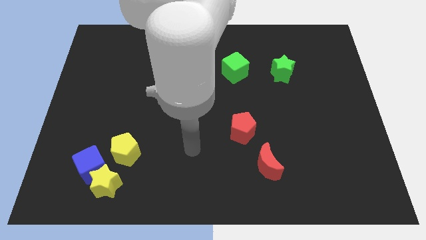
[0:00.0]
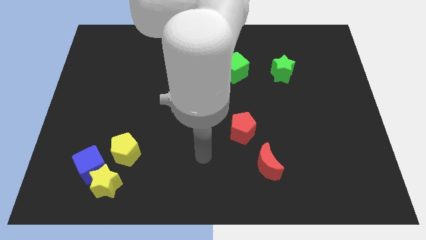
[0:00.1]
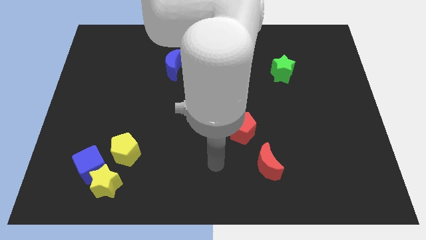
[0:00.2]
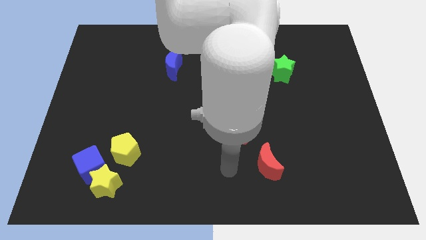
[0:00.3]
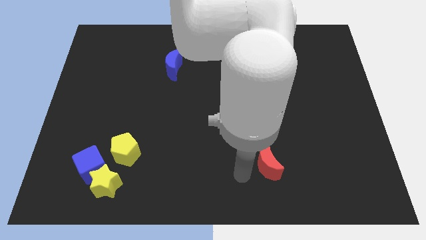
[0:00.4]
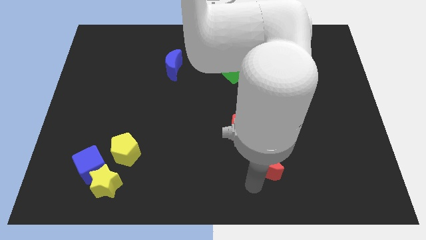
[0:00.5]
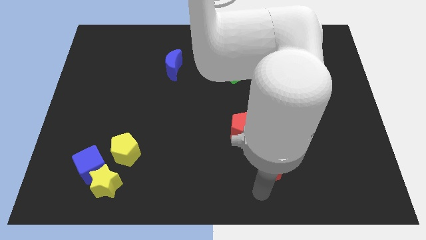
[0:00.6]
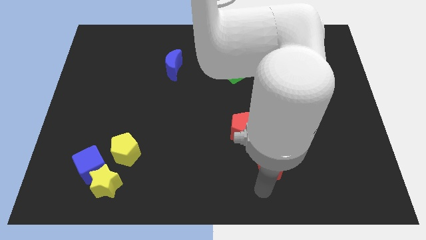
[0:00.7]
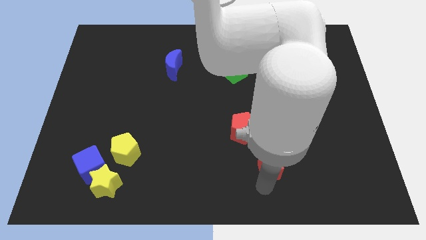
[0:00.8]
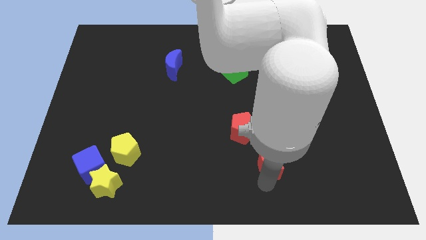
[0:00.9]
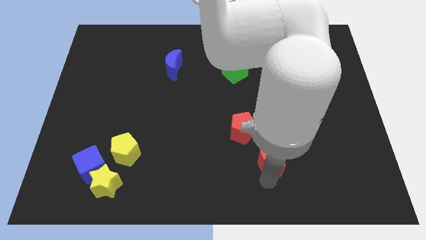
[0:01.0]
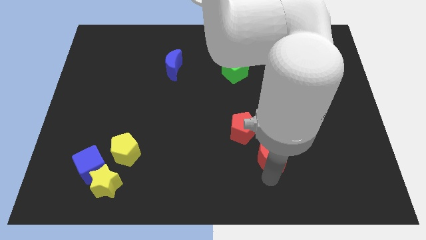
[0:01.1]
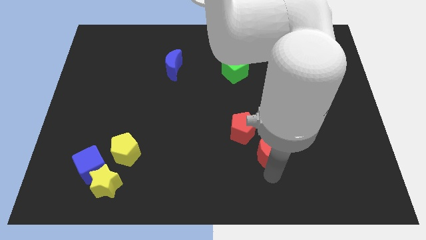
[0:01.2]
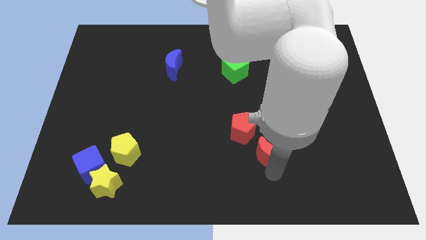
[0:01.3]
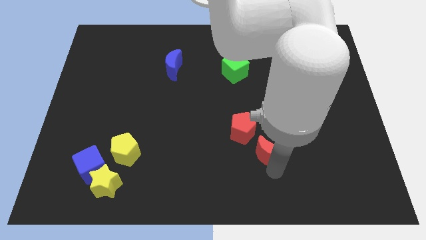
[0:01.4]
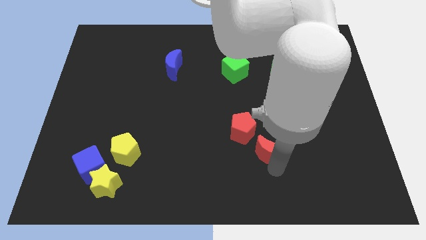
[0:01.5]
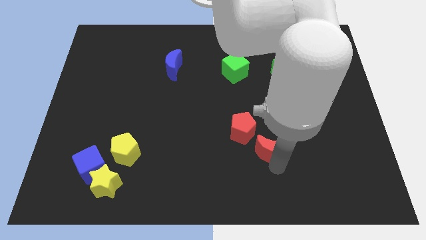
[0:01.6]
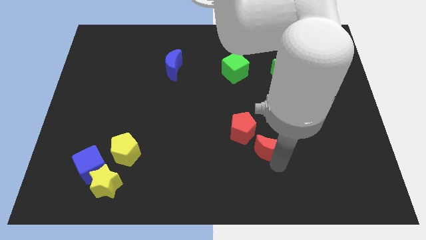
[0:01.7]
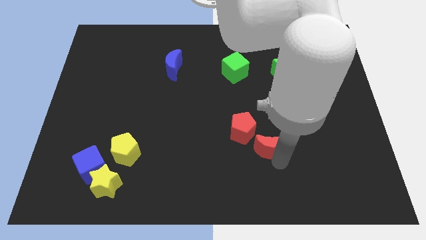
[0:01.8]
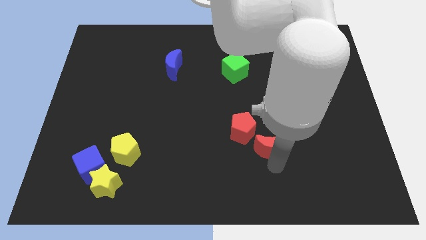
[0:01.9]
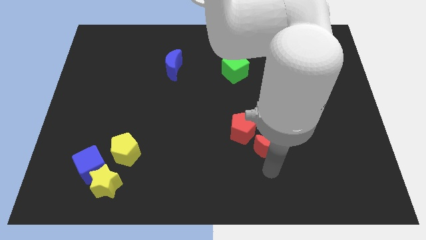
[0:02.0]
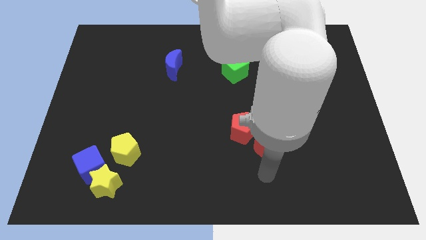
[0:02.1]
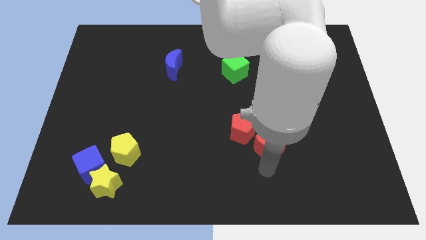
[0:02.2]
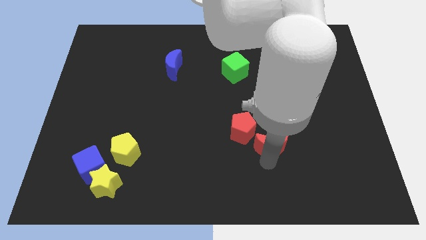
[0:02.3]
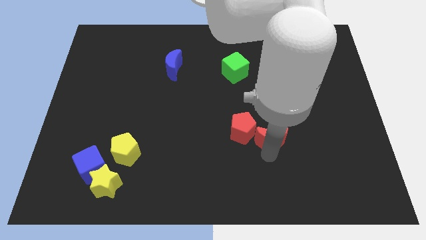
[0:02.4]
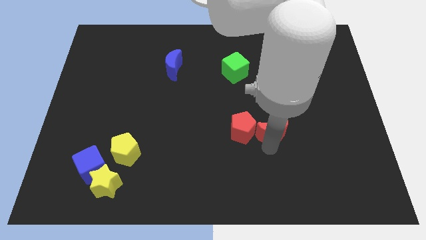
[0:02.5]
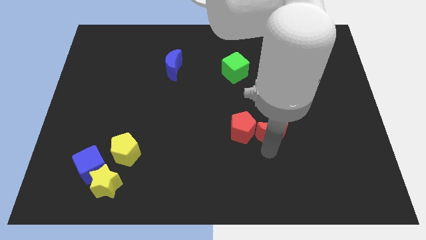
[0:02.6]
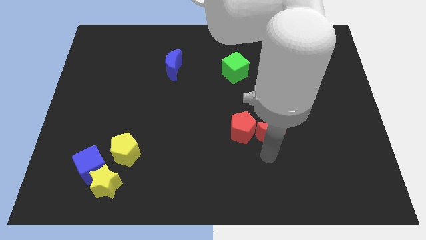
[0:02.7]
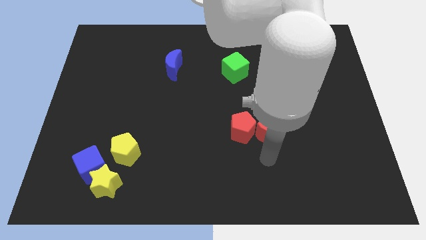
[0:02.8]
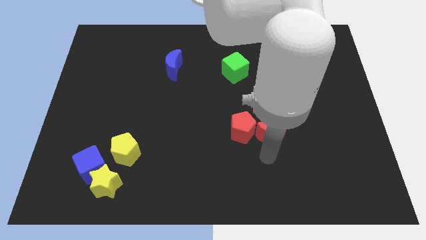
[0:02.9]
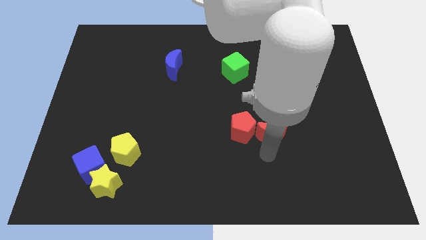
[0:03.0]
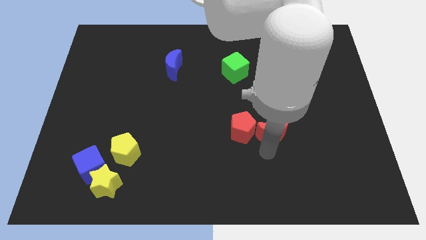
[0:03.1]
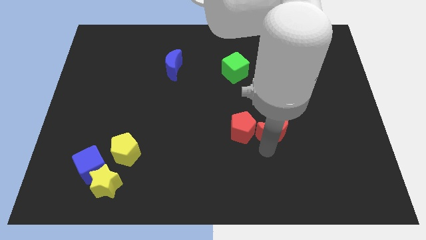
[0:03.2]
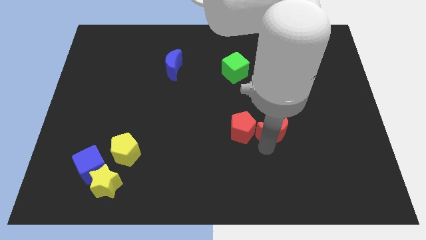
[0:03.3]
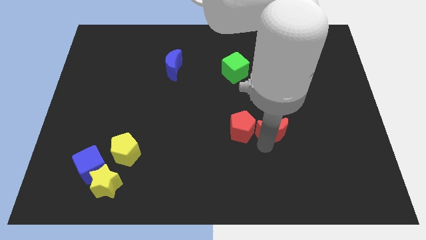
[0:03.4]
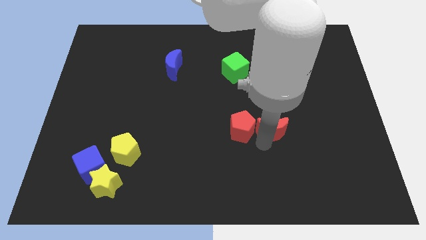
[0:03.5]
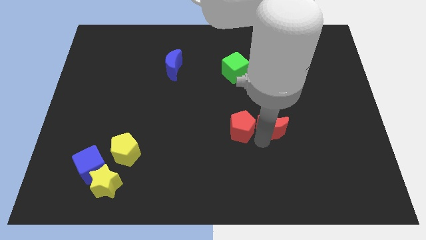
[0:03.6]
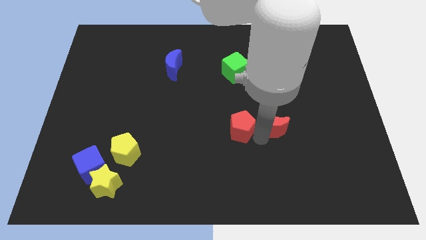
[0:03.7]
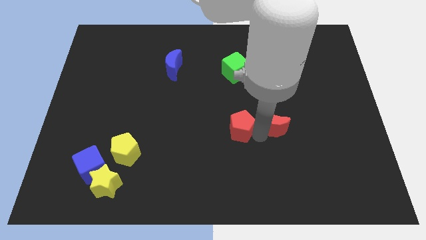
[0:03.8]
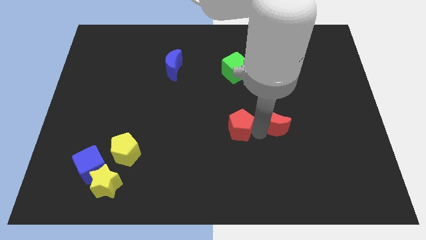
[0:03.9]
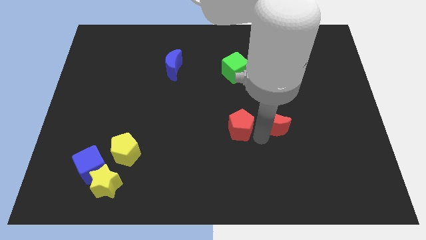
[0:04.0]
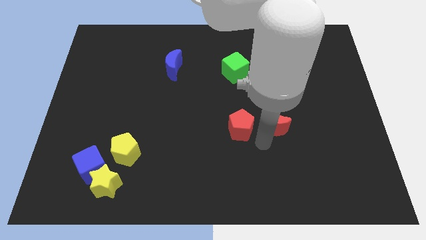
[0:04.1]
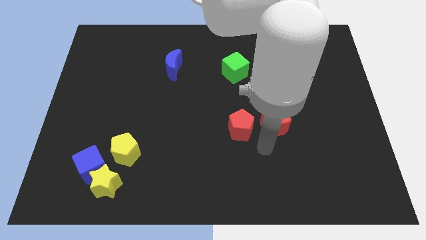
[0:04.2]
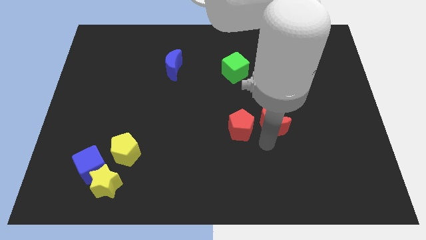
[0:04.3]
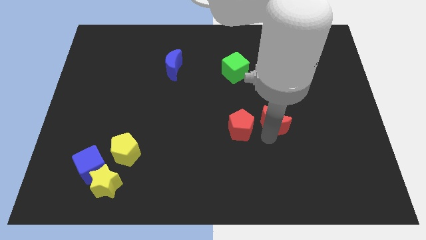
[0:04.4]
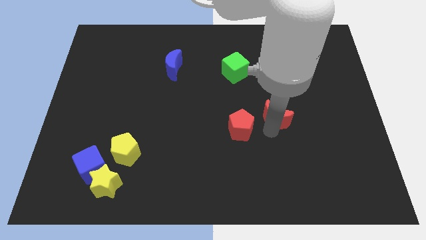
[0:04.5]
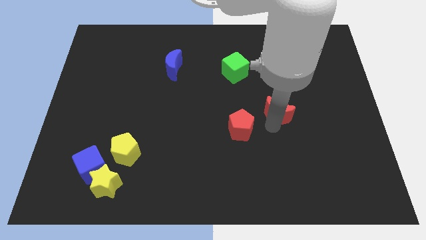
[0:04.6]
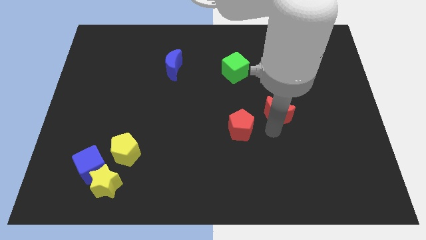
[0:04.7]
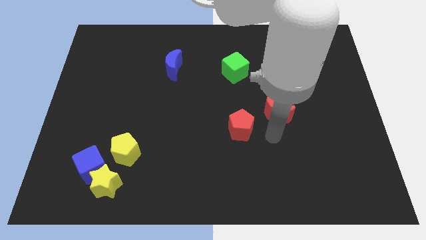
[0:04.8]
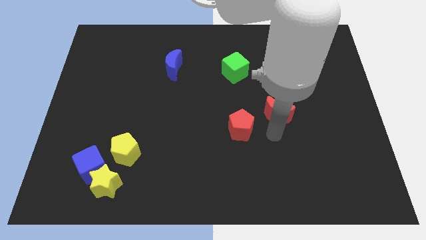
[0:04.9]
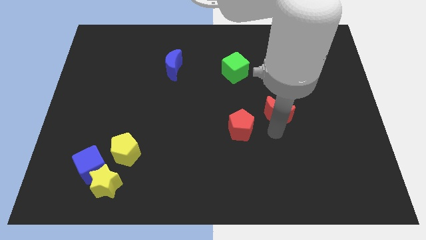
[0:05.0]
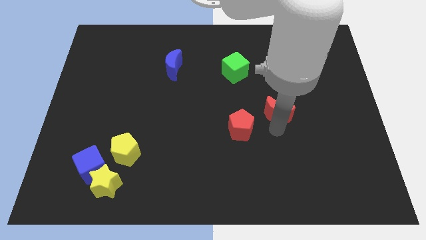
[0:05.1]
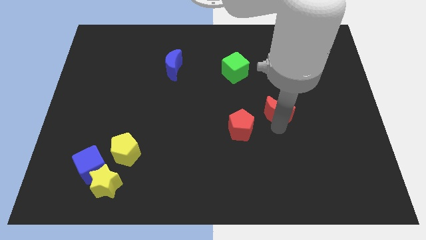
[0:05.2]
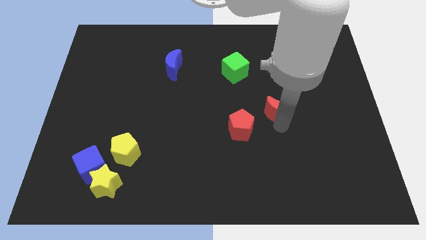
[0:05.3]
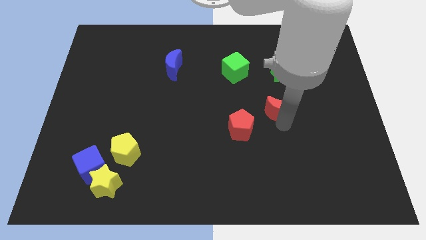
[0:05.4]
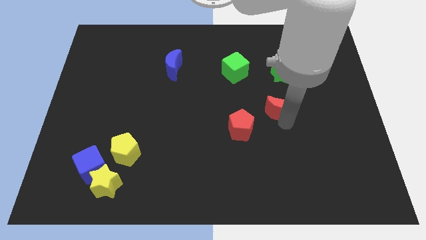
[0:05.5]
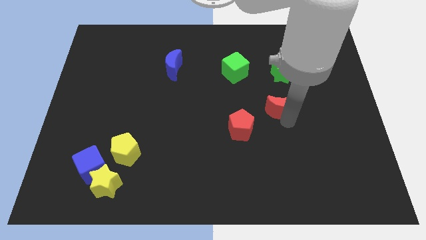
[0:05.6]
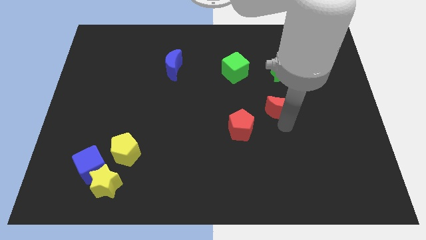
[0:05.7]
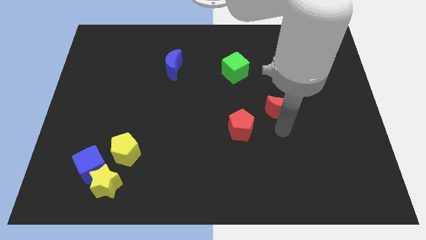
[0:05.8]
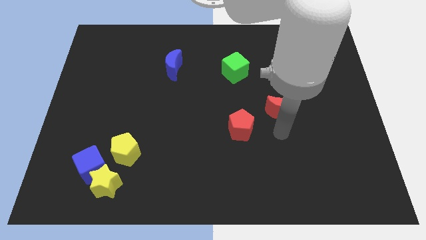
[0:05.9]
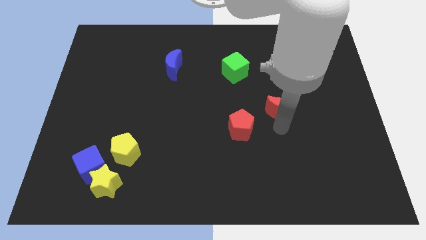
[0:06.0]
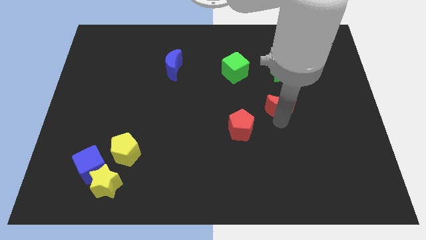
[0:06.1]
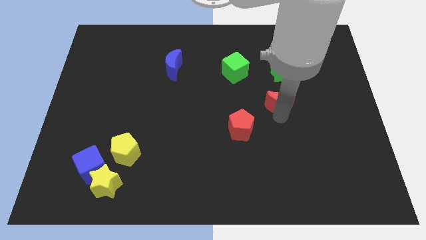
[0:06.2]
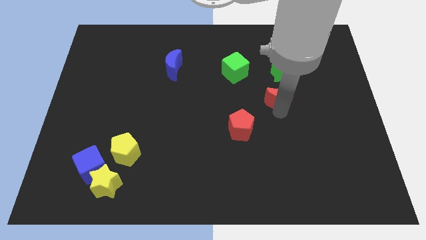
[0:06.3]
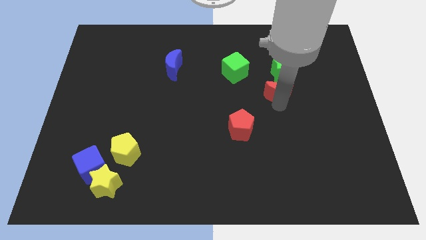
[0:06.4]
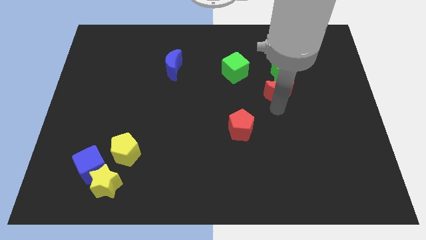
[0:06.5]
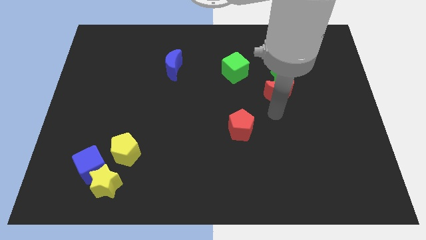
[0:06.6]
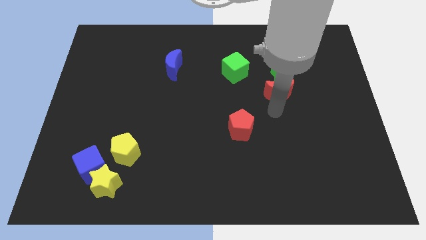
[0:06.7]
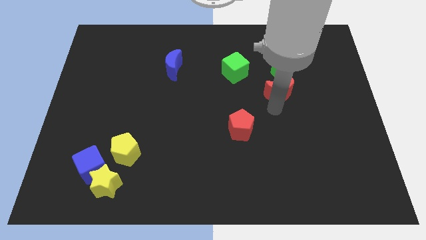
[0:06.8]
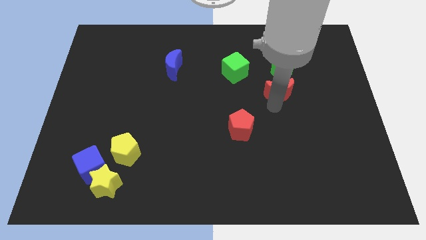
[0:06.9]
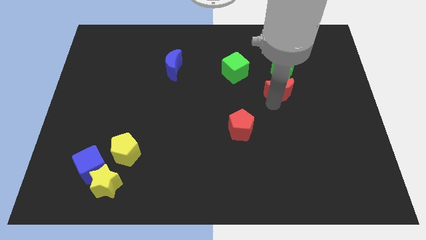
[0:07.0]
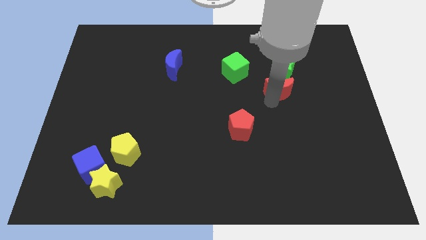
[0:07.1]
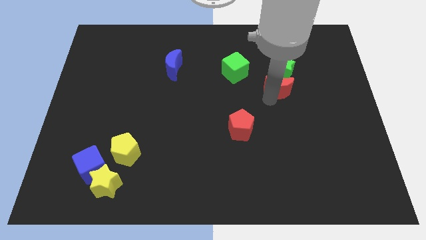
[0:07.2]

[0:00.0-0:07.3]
slide the red moon towards the green star
